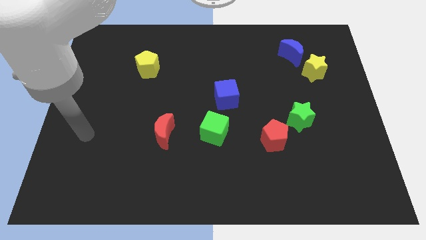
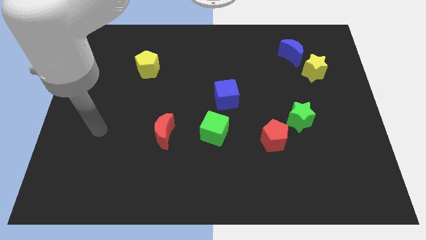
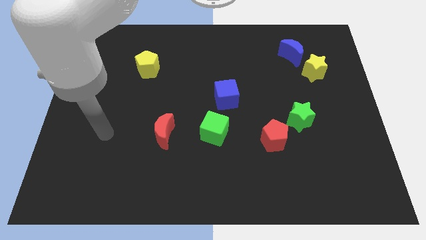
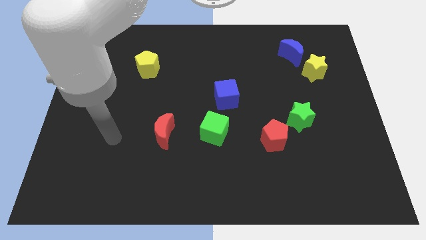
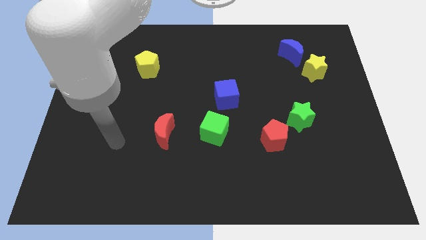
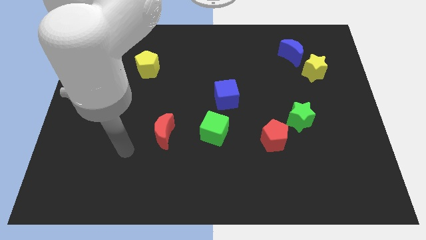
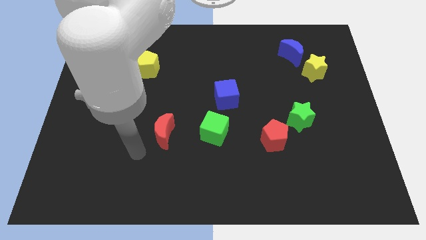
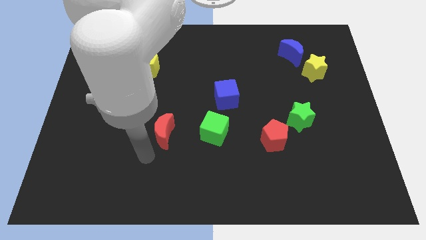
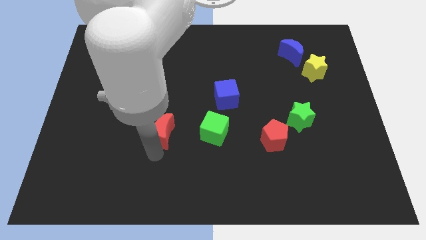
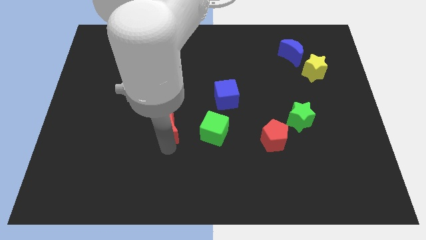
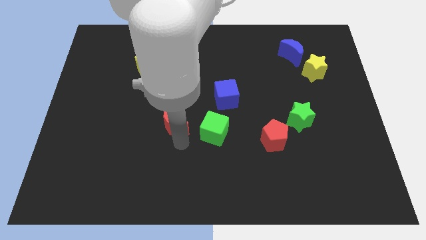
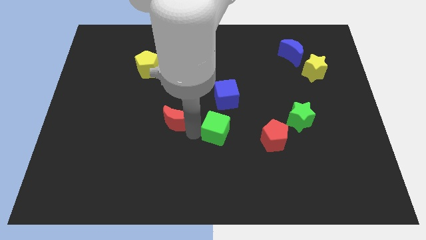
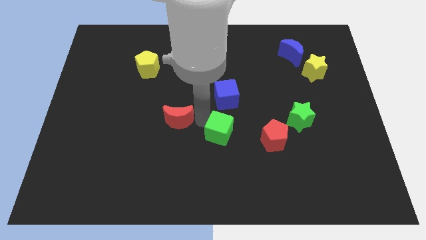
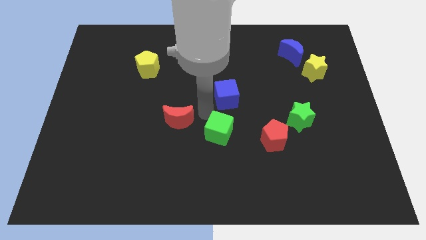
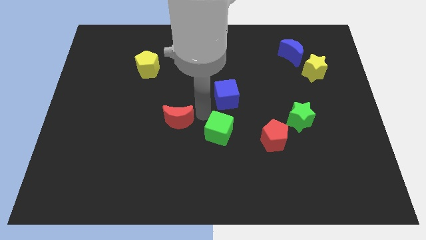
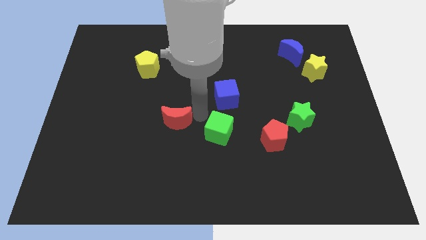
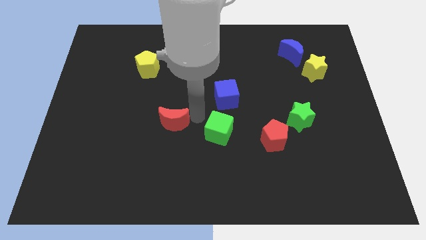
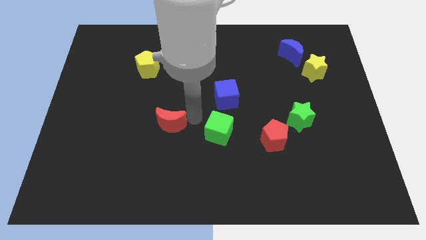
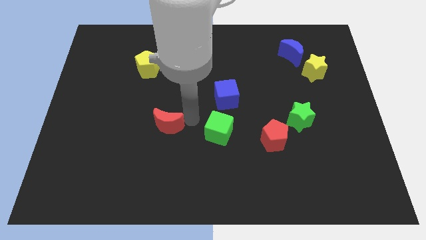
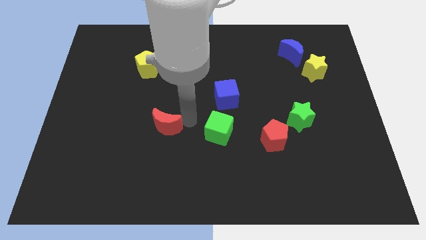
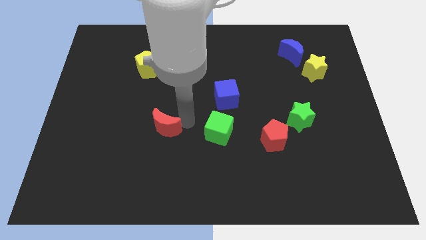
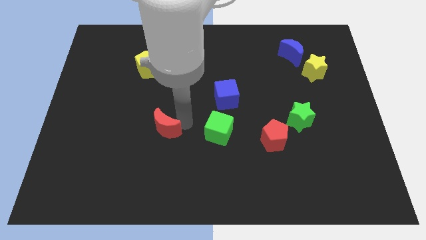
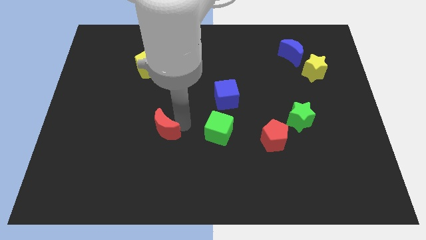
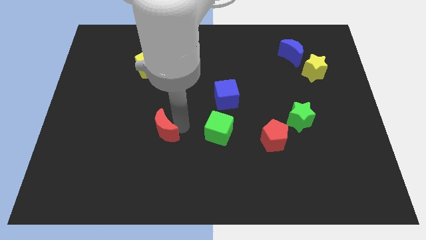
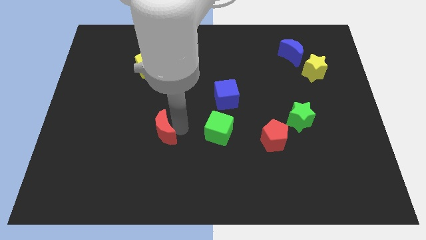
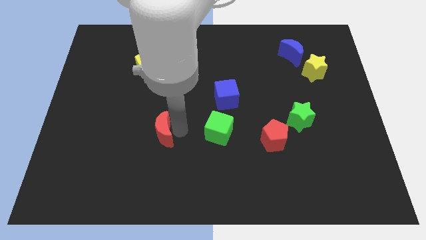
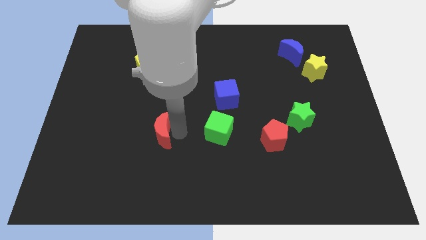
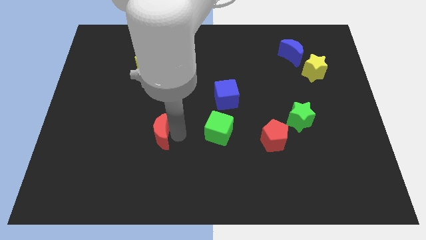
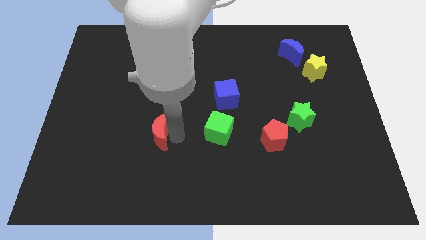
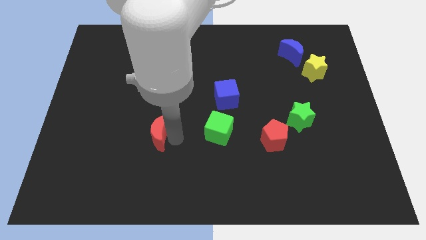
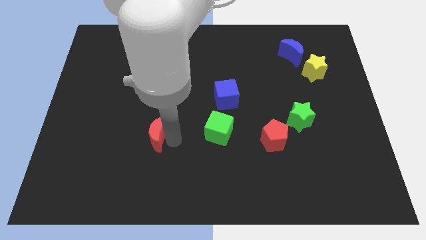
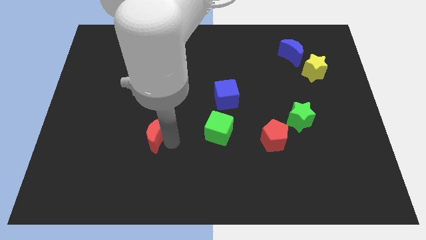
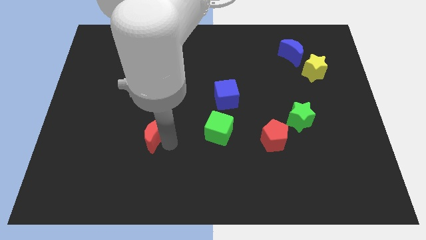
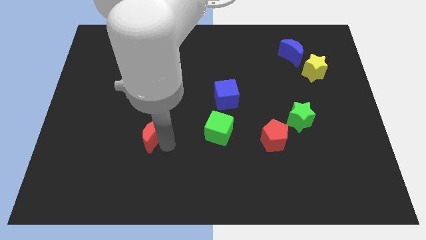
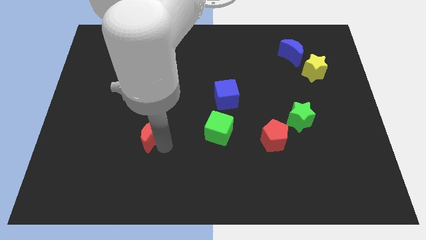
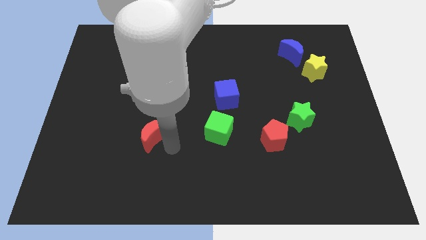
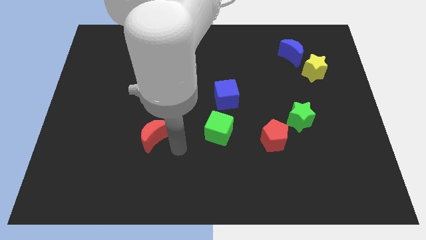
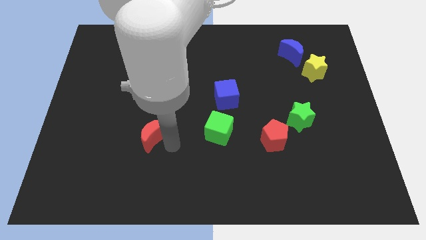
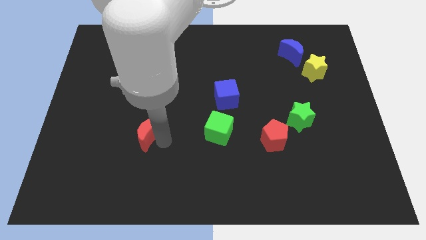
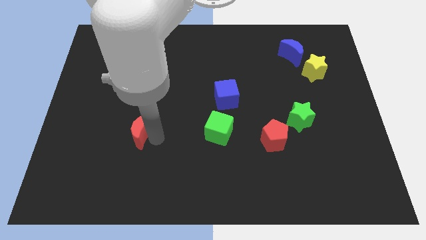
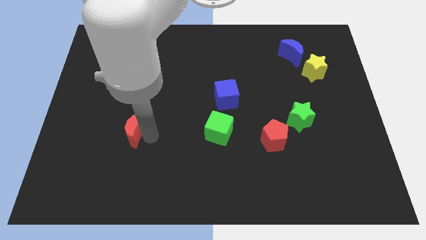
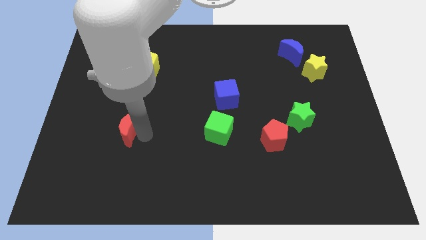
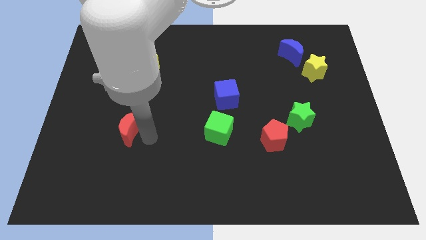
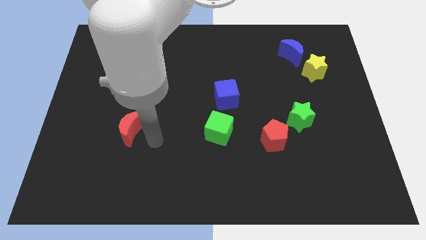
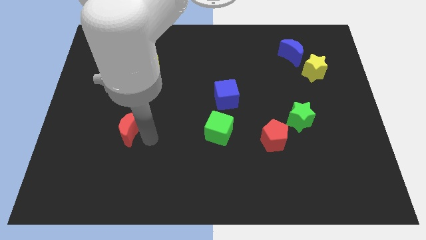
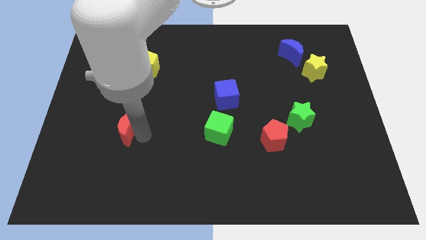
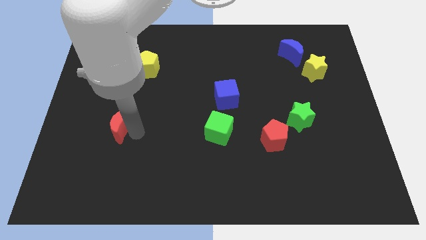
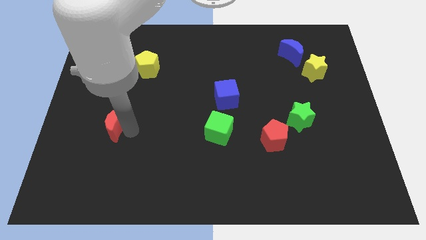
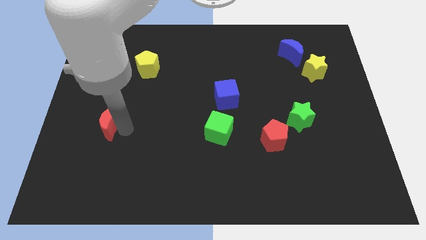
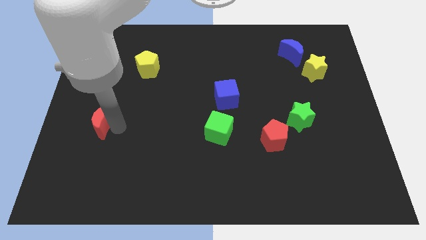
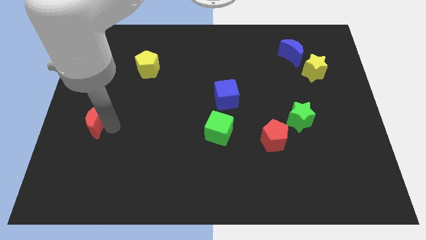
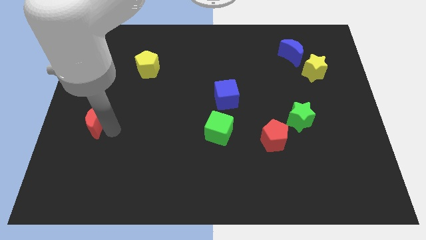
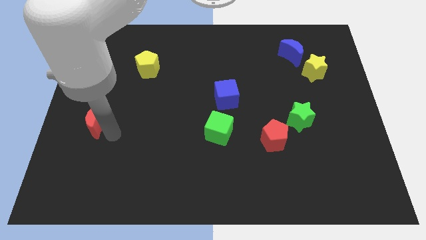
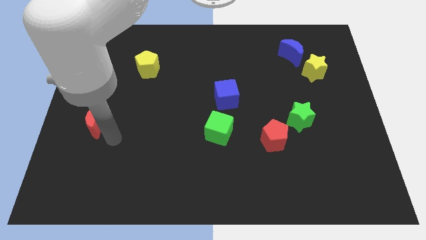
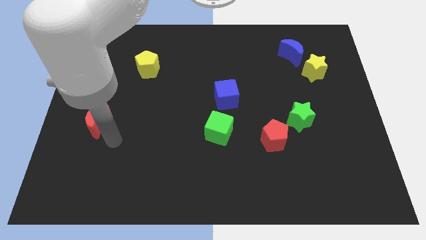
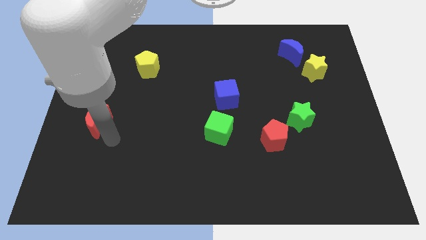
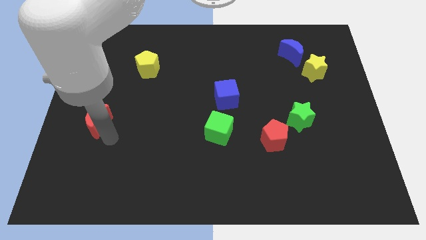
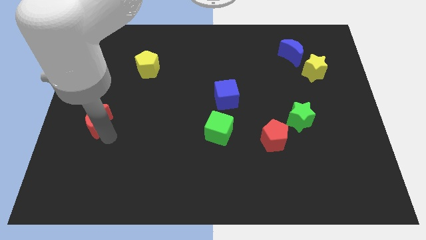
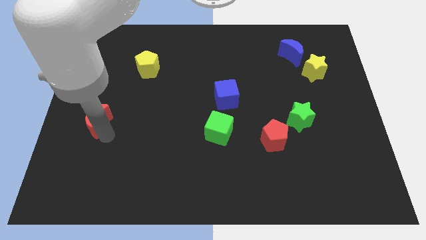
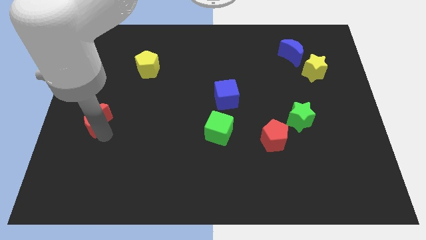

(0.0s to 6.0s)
slide the red moon to the left side of the board

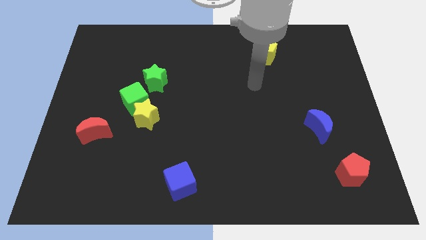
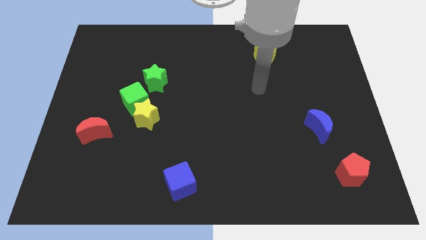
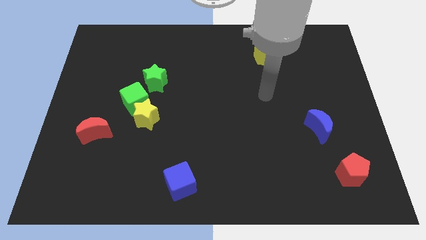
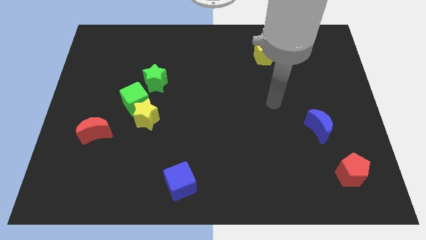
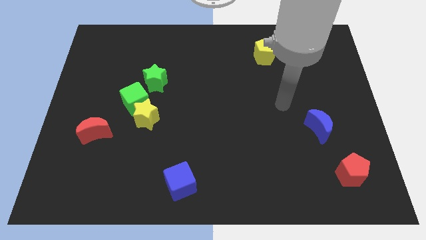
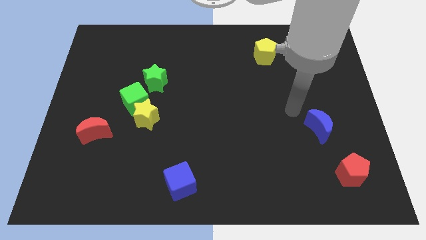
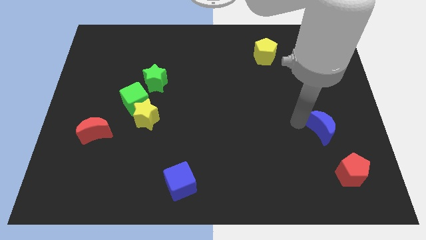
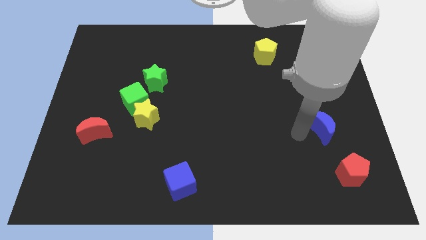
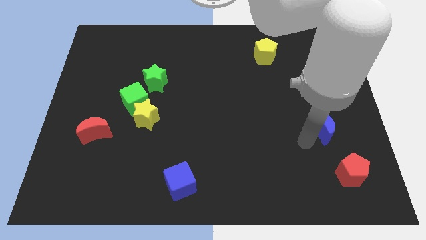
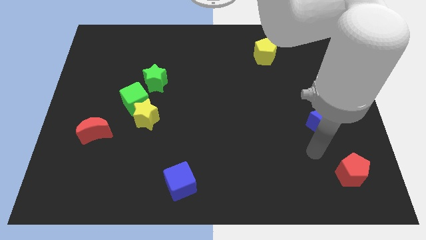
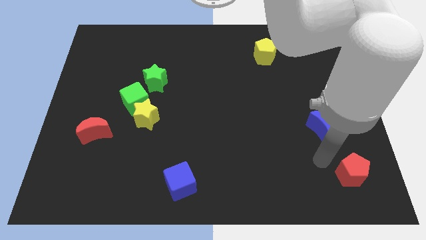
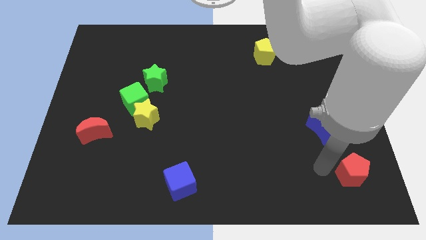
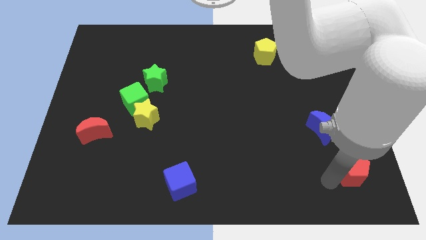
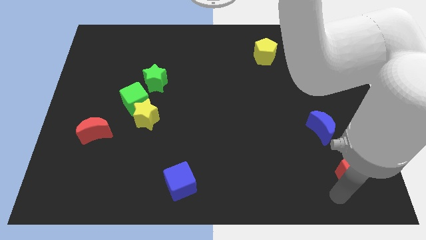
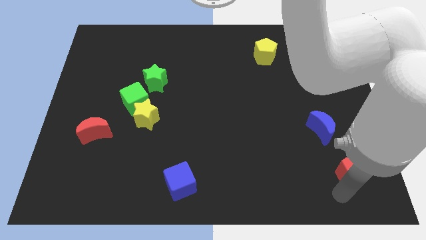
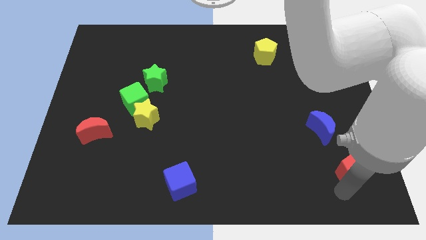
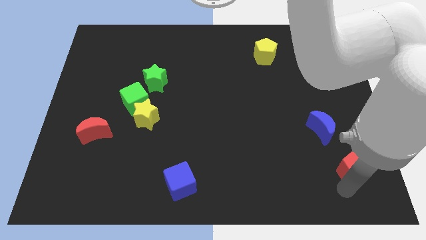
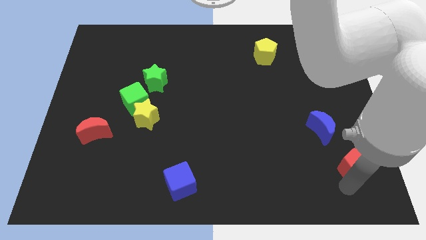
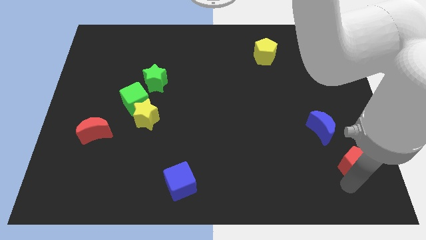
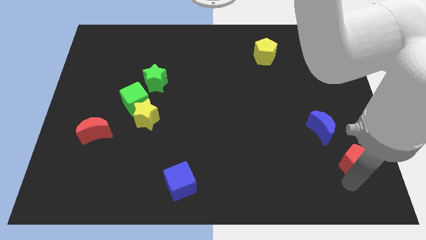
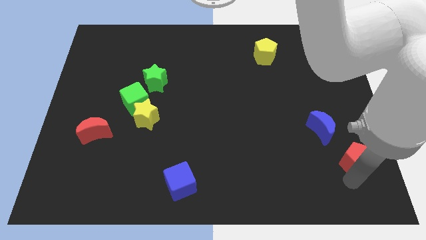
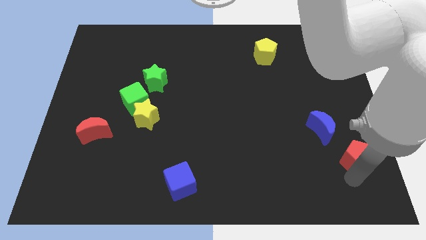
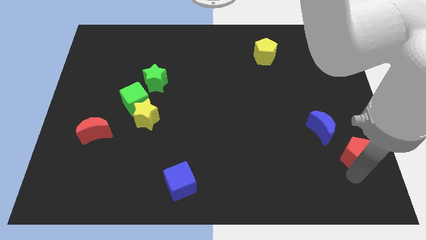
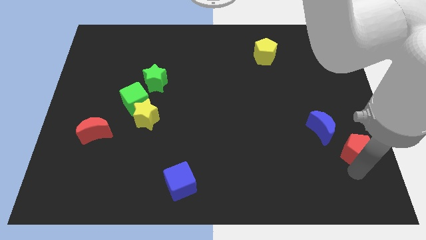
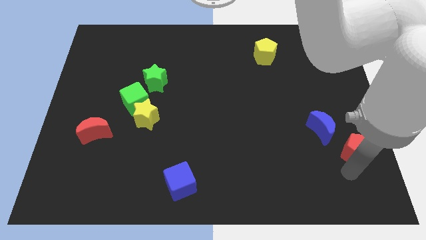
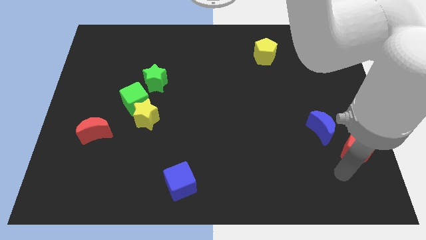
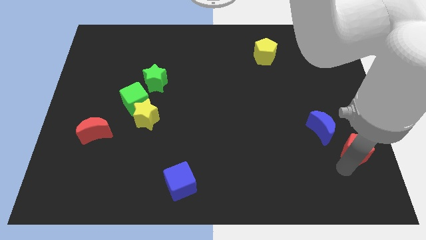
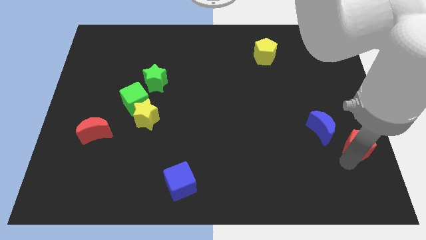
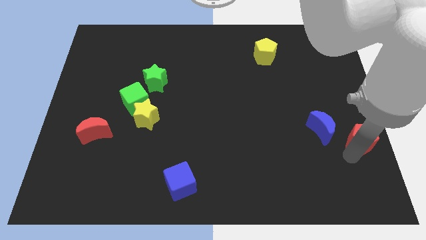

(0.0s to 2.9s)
move the red pentagon to the center right
